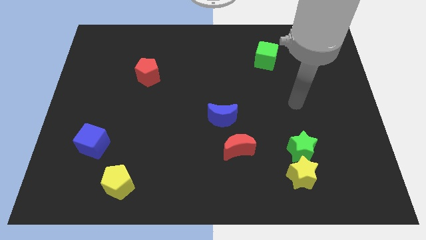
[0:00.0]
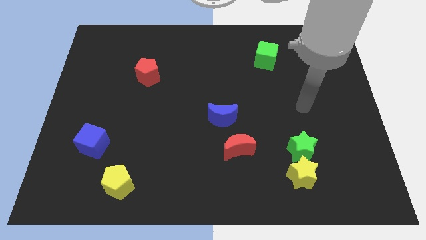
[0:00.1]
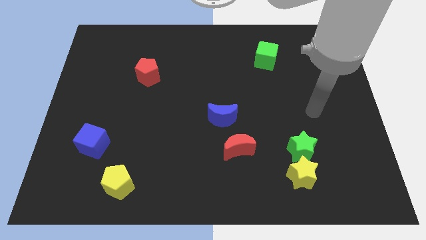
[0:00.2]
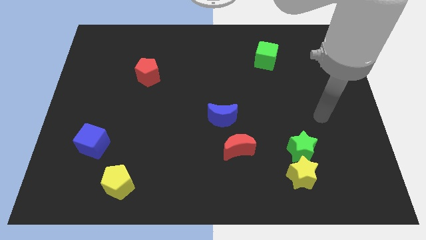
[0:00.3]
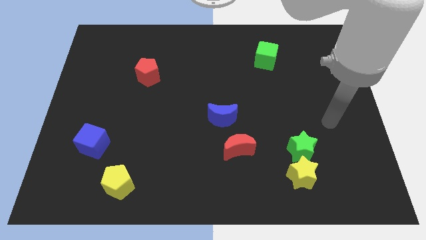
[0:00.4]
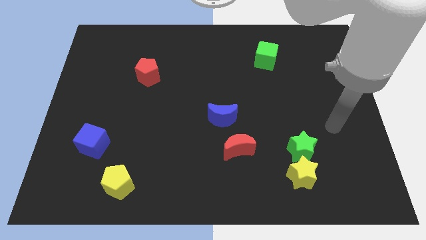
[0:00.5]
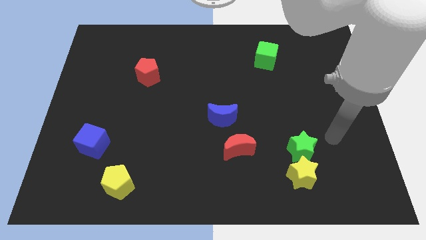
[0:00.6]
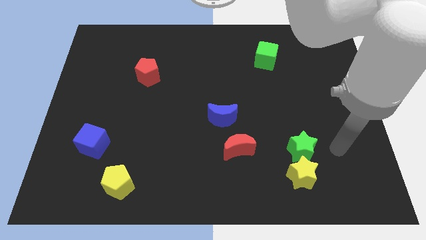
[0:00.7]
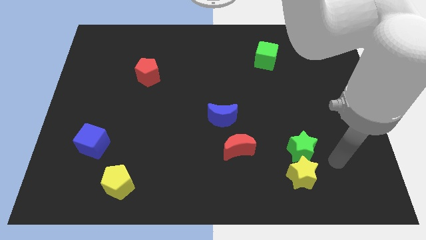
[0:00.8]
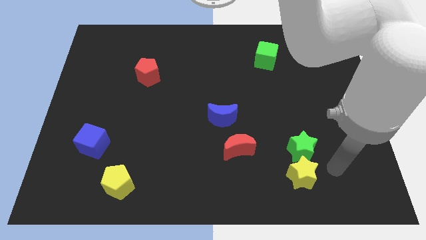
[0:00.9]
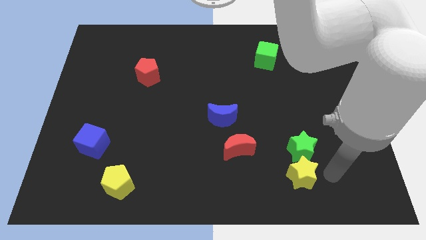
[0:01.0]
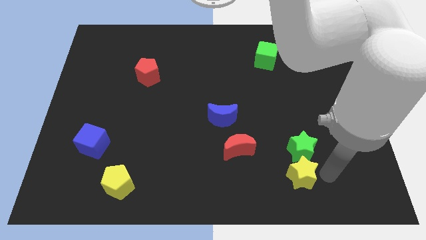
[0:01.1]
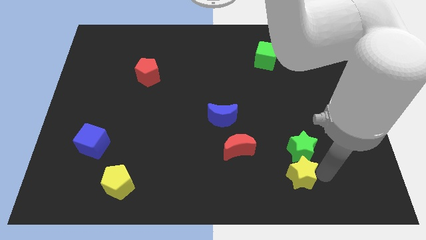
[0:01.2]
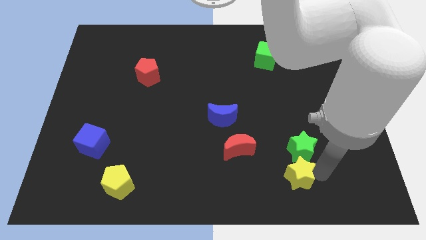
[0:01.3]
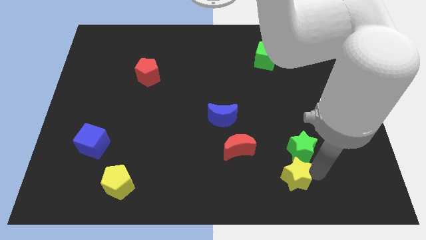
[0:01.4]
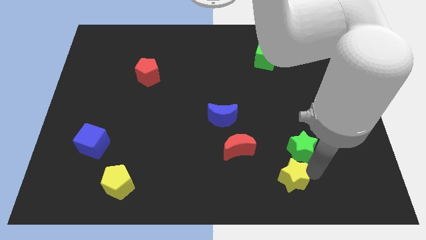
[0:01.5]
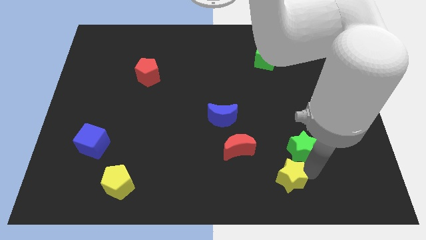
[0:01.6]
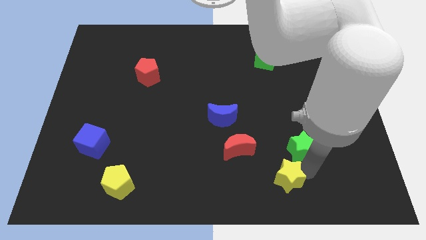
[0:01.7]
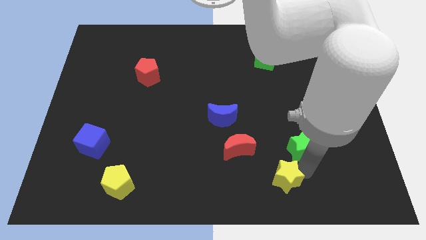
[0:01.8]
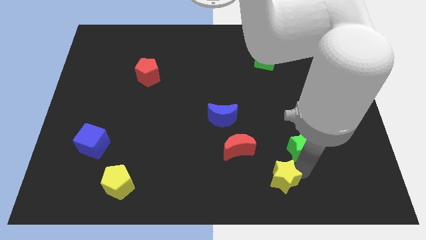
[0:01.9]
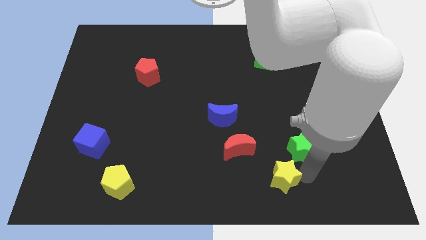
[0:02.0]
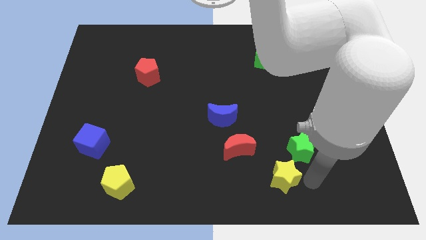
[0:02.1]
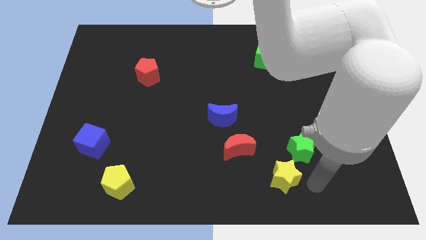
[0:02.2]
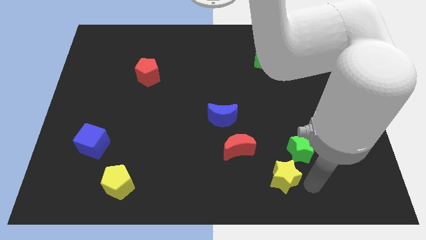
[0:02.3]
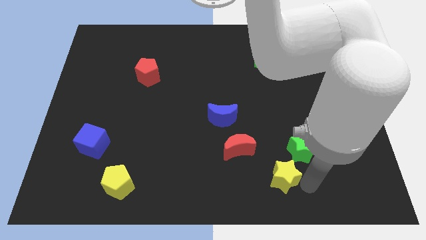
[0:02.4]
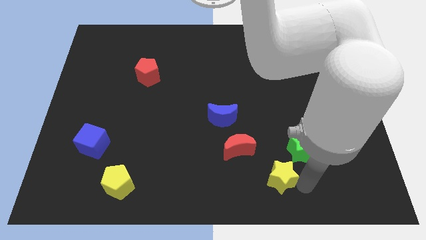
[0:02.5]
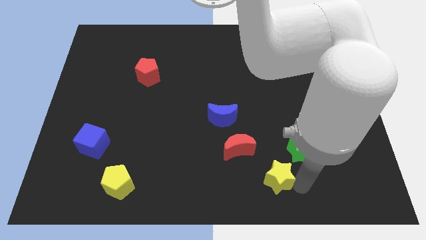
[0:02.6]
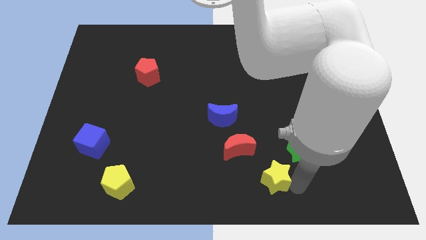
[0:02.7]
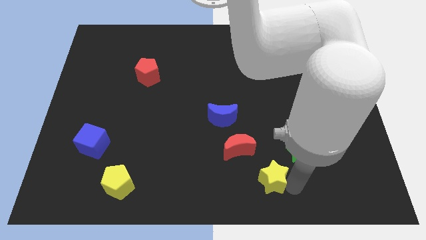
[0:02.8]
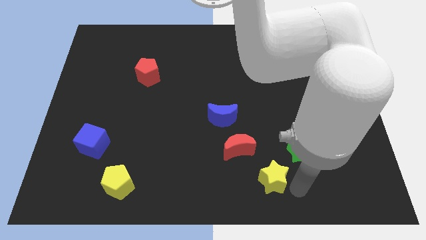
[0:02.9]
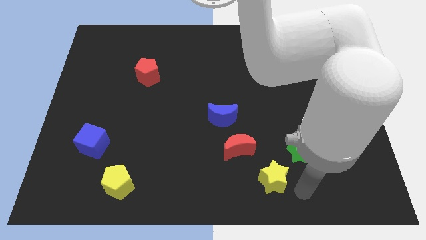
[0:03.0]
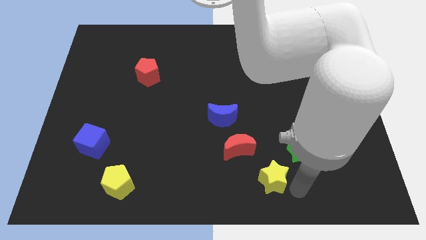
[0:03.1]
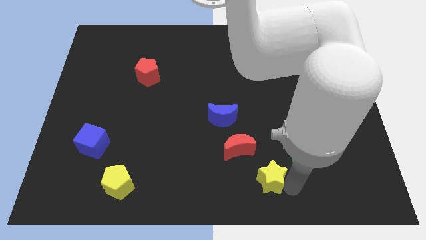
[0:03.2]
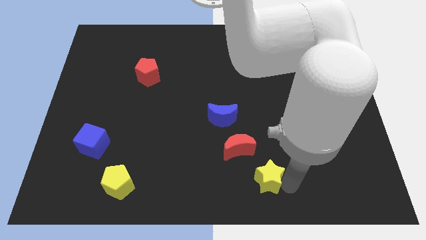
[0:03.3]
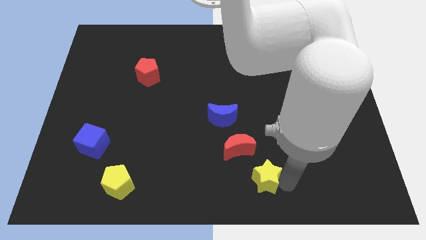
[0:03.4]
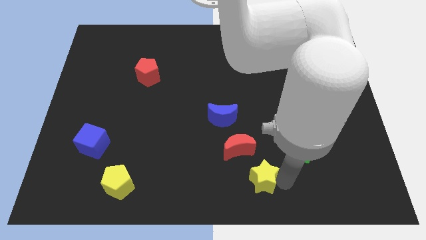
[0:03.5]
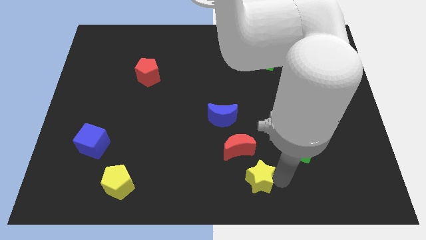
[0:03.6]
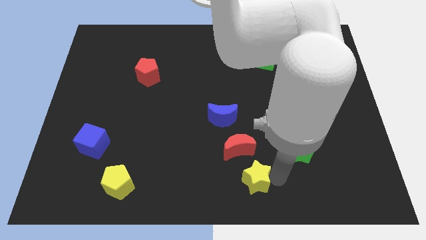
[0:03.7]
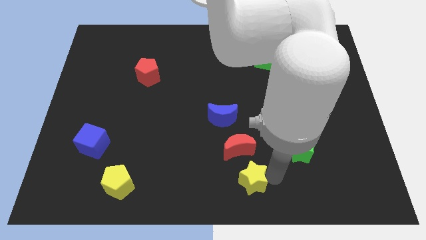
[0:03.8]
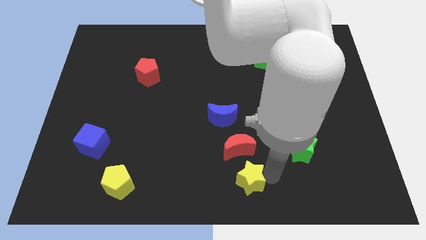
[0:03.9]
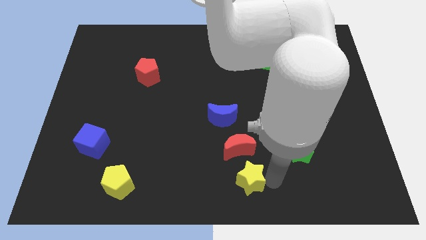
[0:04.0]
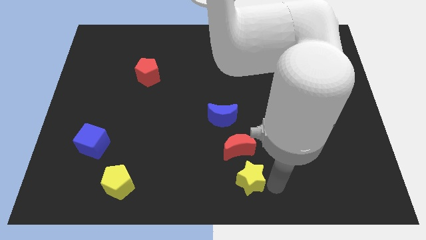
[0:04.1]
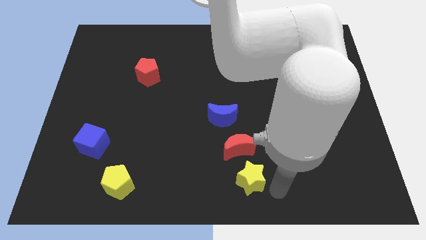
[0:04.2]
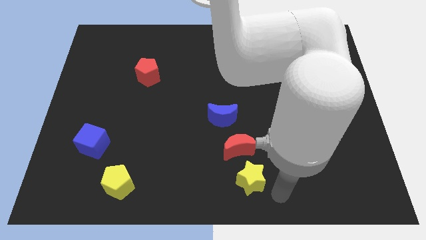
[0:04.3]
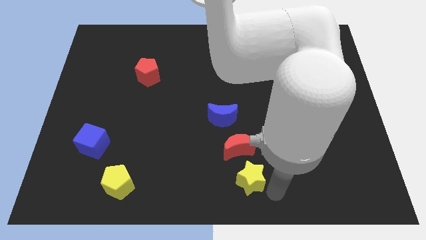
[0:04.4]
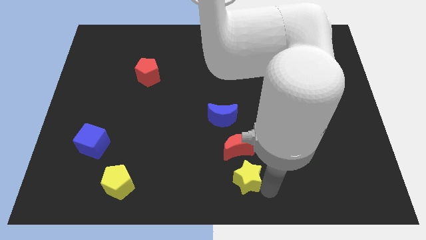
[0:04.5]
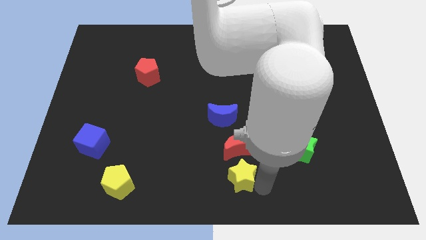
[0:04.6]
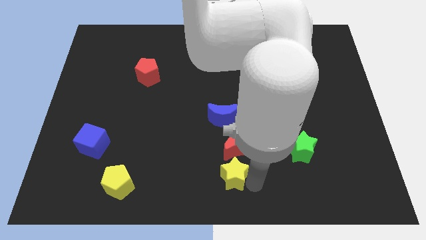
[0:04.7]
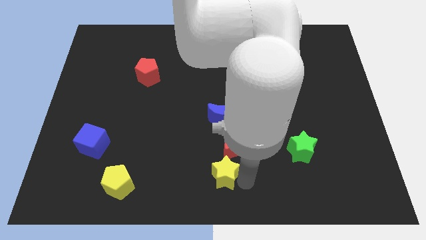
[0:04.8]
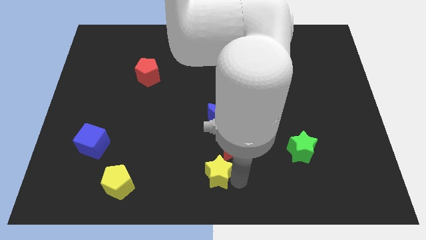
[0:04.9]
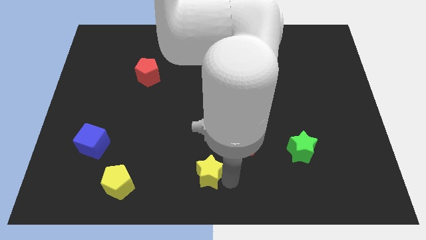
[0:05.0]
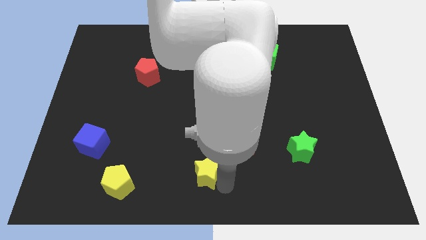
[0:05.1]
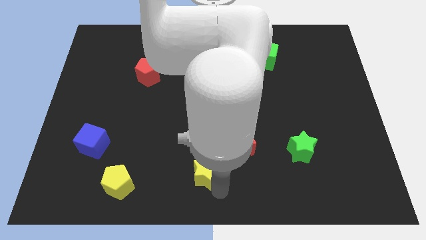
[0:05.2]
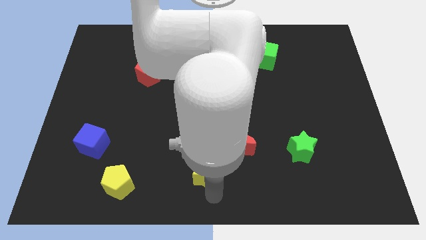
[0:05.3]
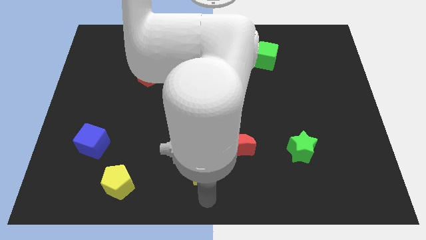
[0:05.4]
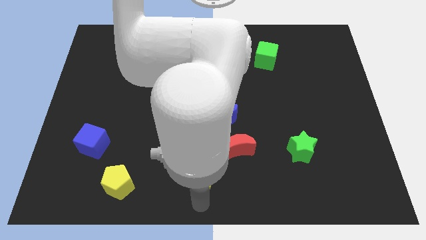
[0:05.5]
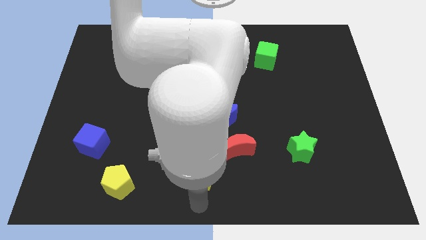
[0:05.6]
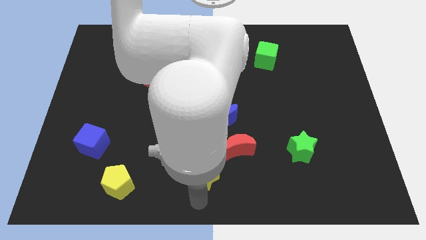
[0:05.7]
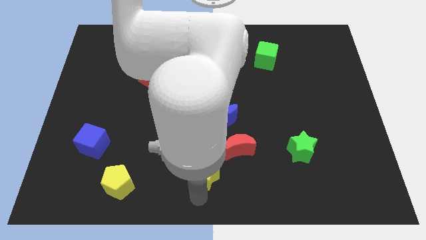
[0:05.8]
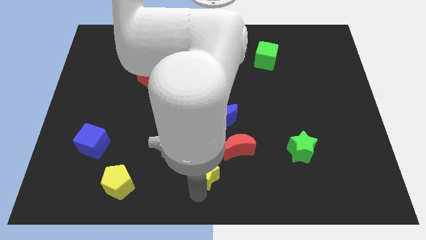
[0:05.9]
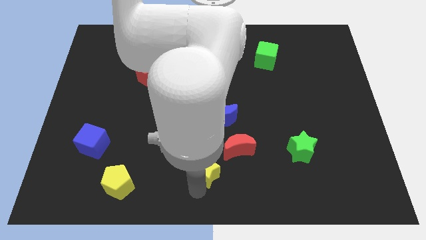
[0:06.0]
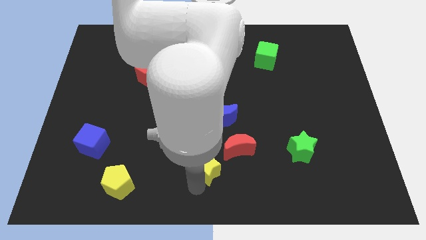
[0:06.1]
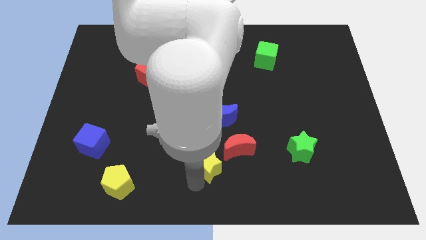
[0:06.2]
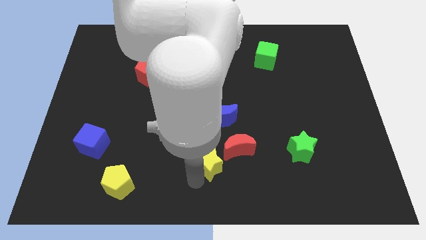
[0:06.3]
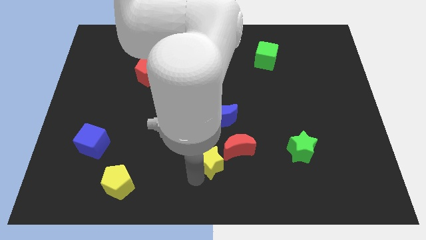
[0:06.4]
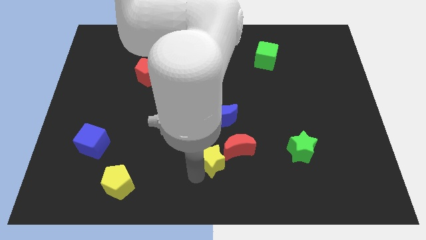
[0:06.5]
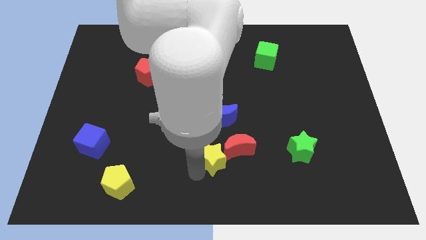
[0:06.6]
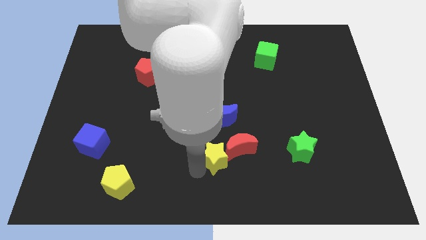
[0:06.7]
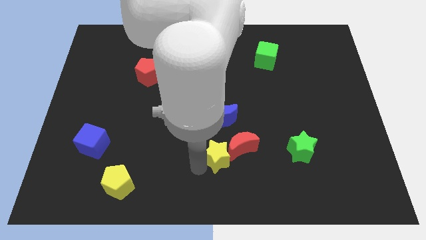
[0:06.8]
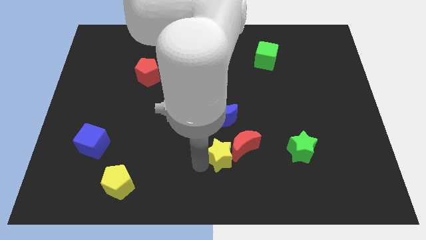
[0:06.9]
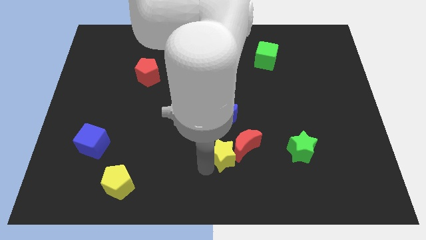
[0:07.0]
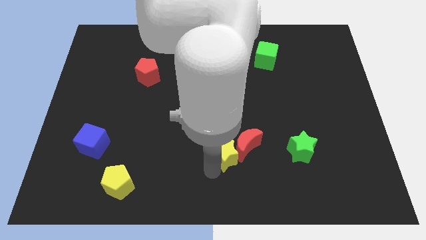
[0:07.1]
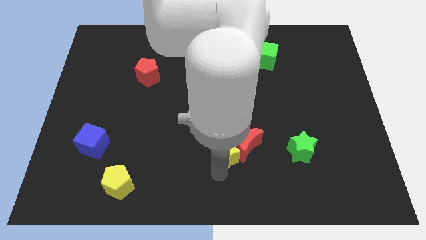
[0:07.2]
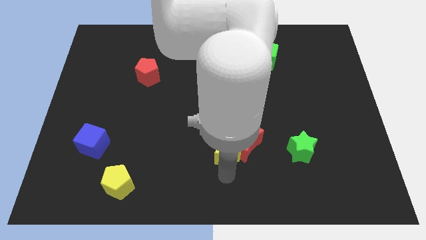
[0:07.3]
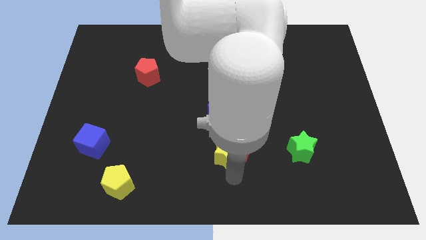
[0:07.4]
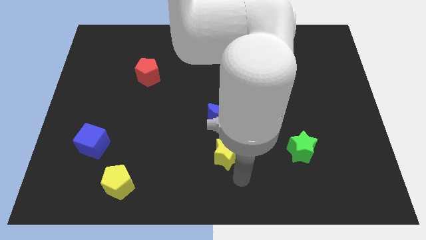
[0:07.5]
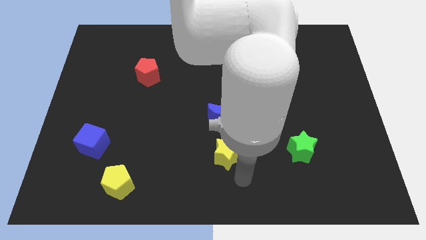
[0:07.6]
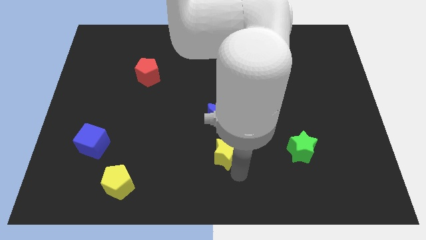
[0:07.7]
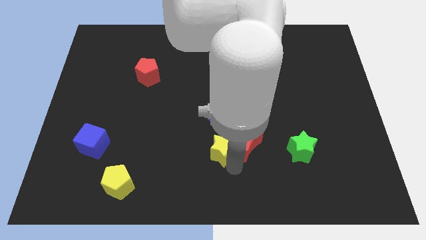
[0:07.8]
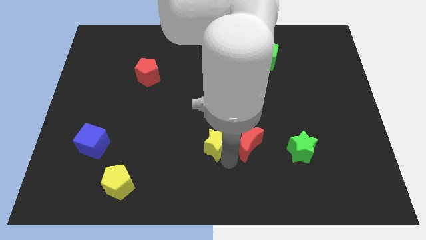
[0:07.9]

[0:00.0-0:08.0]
slide the yellow star diagonally up and to the left of the red moon
